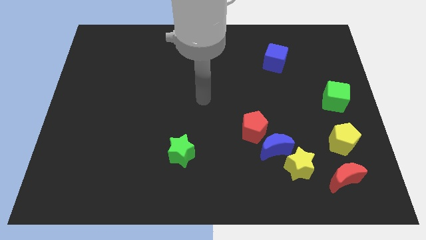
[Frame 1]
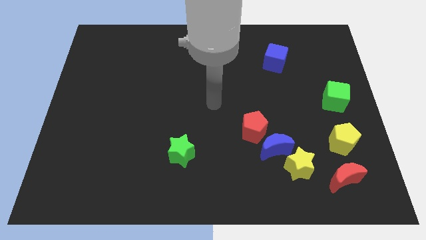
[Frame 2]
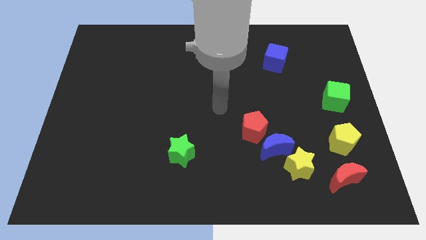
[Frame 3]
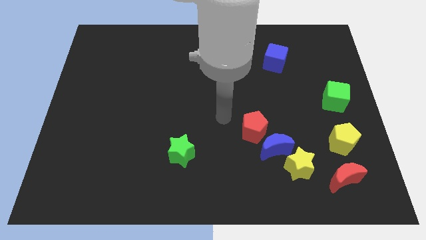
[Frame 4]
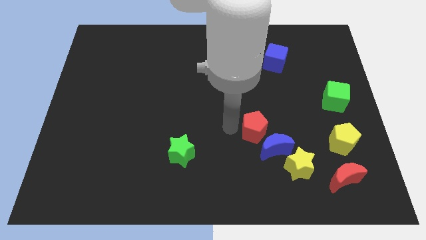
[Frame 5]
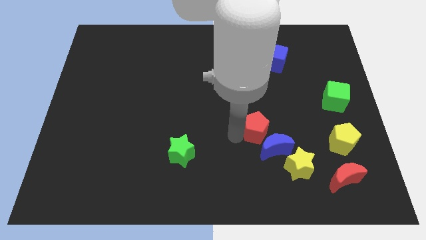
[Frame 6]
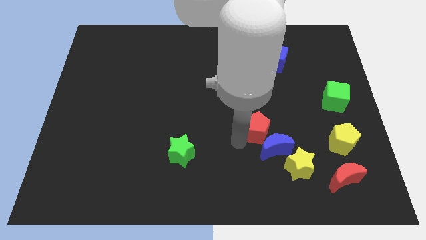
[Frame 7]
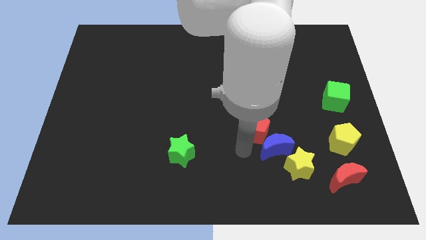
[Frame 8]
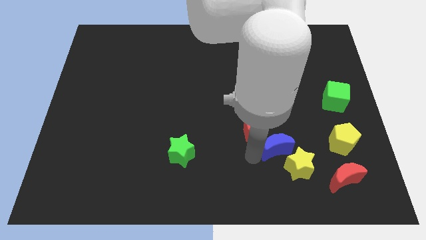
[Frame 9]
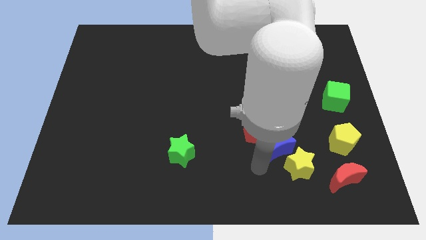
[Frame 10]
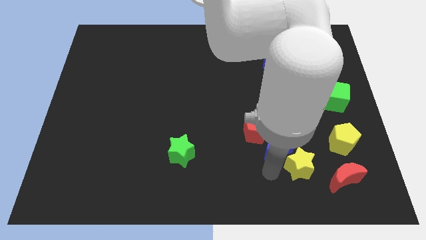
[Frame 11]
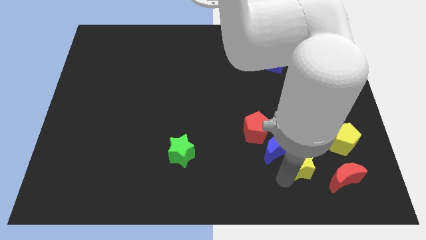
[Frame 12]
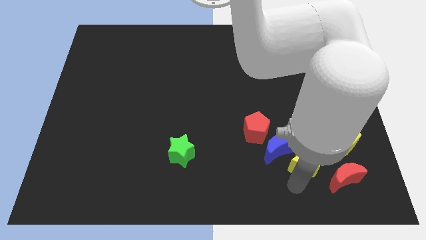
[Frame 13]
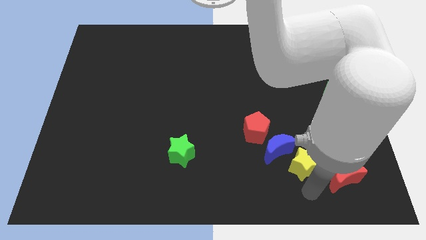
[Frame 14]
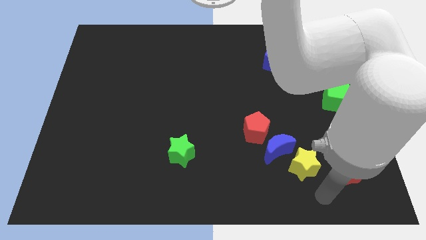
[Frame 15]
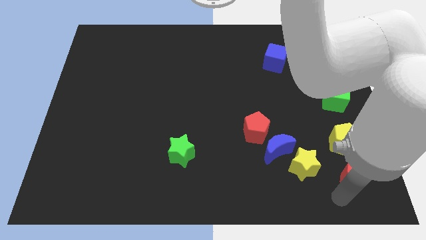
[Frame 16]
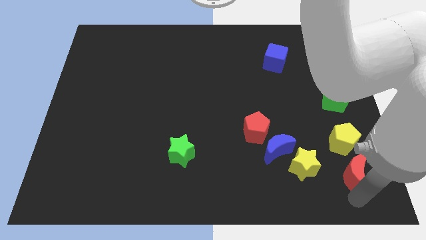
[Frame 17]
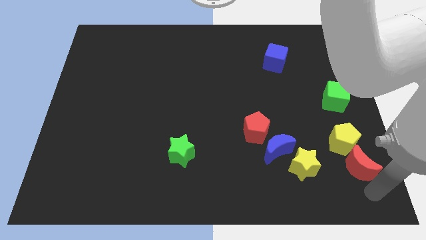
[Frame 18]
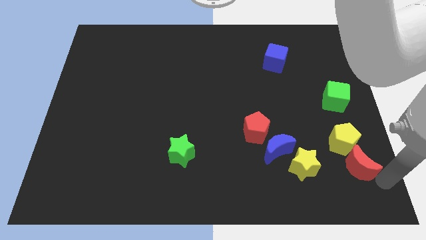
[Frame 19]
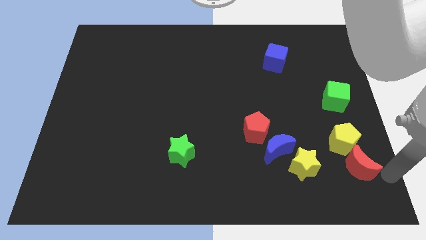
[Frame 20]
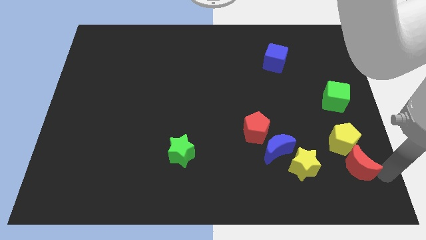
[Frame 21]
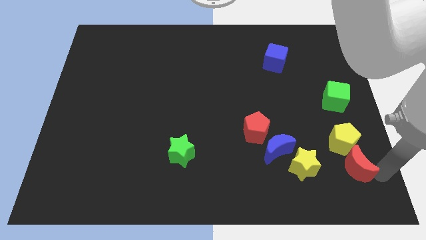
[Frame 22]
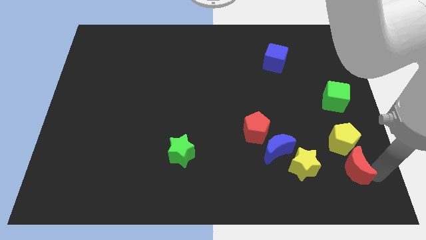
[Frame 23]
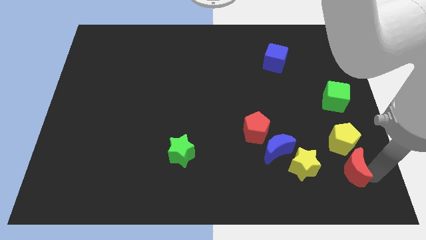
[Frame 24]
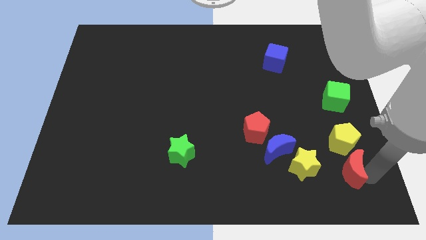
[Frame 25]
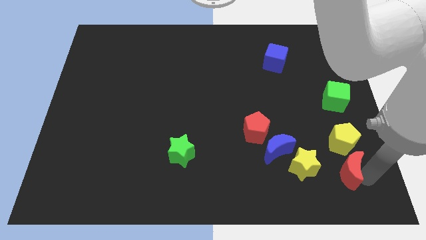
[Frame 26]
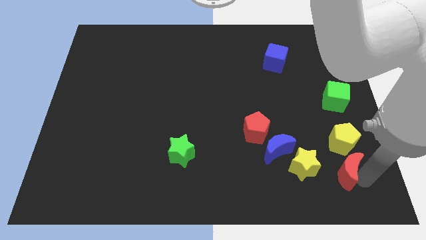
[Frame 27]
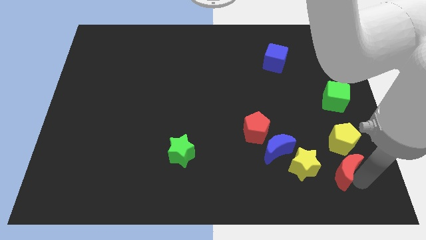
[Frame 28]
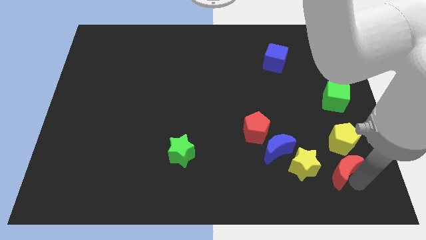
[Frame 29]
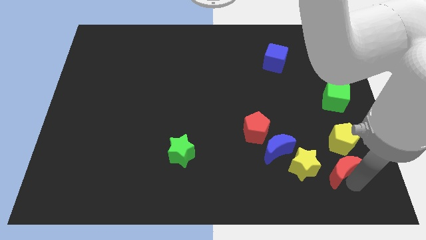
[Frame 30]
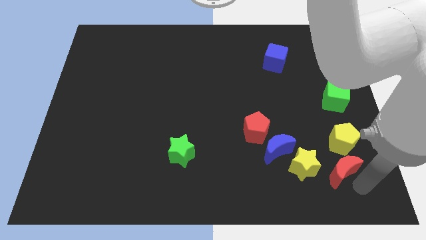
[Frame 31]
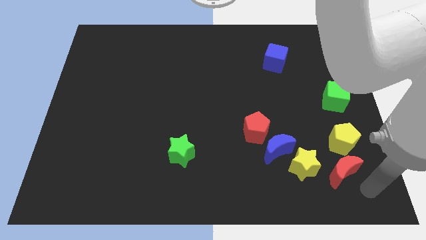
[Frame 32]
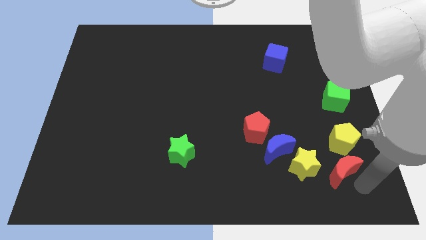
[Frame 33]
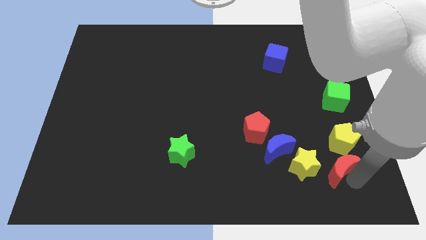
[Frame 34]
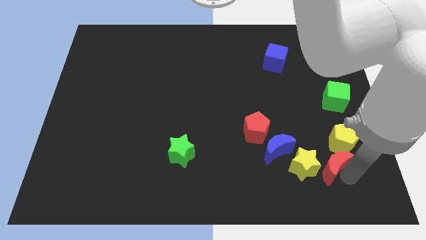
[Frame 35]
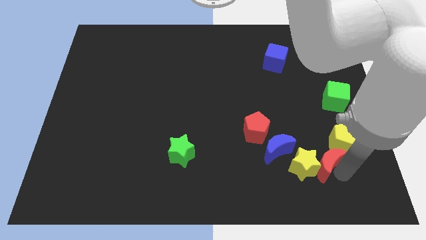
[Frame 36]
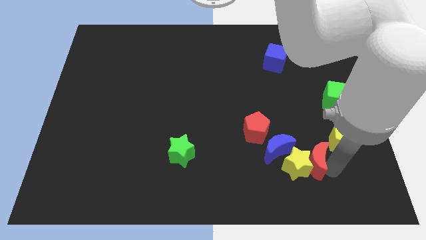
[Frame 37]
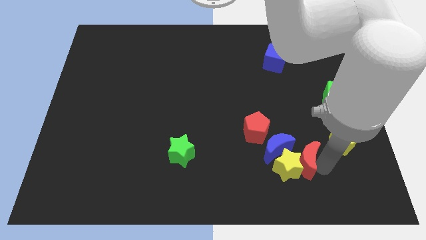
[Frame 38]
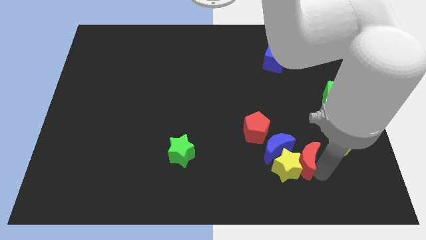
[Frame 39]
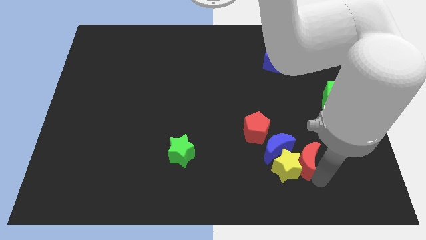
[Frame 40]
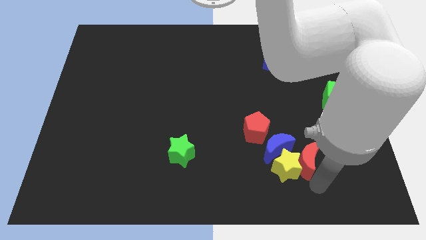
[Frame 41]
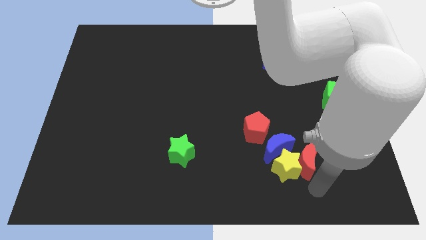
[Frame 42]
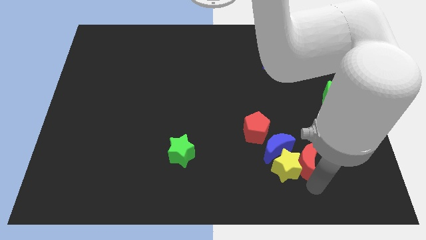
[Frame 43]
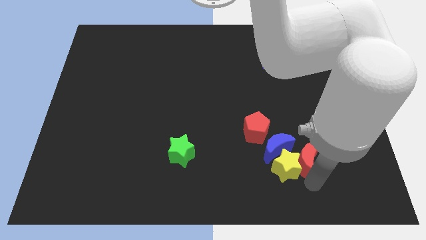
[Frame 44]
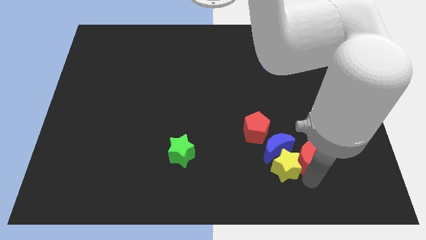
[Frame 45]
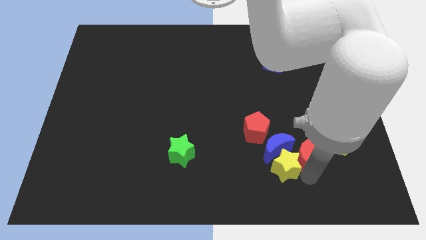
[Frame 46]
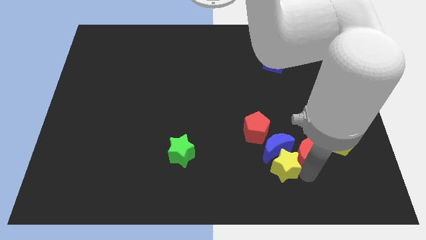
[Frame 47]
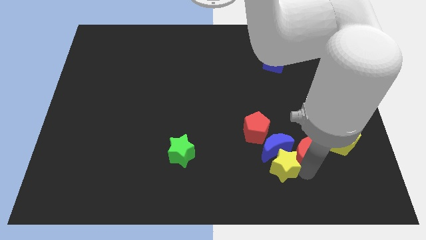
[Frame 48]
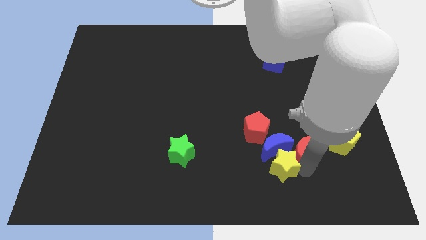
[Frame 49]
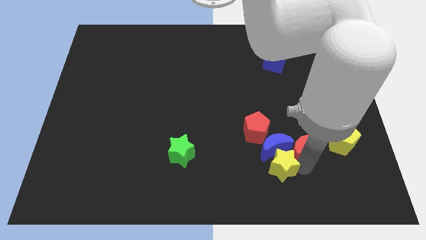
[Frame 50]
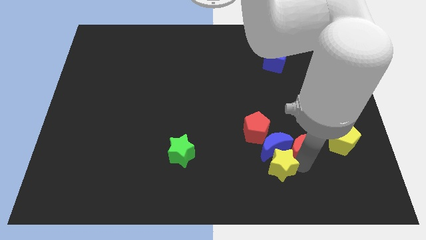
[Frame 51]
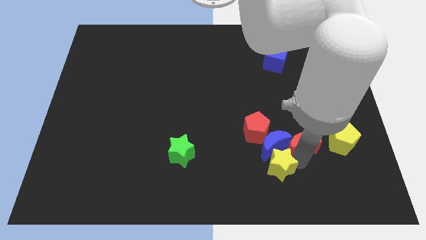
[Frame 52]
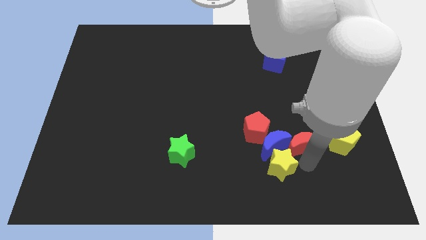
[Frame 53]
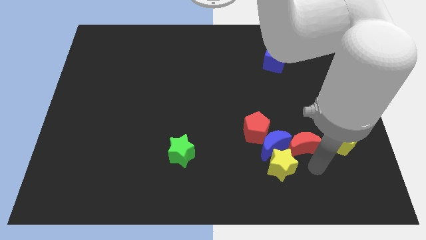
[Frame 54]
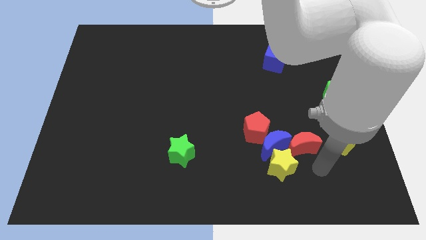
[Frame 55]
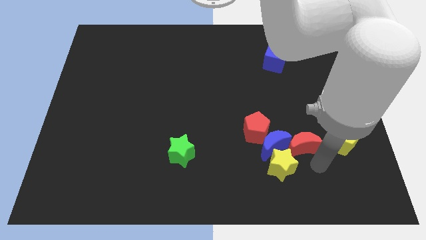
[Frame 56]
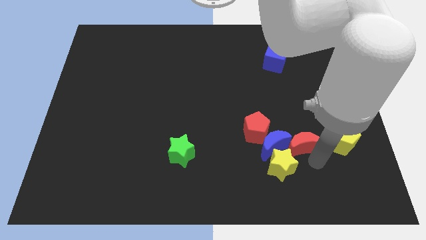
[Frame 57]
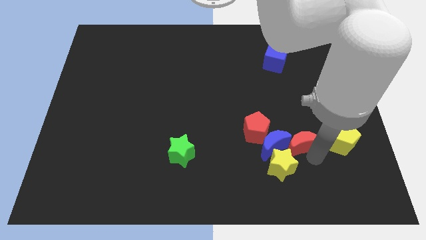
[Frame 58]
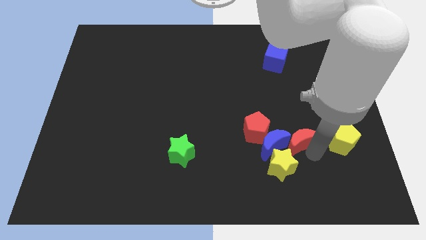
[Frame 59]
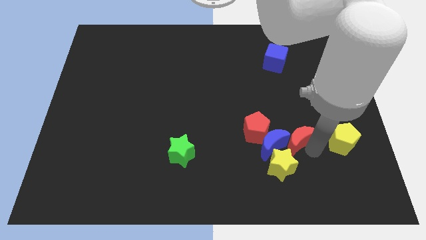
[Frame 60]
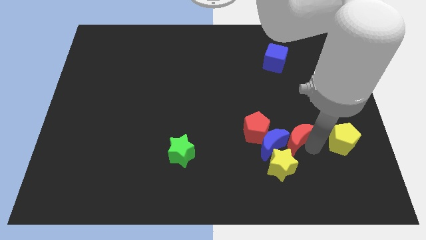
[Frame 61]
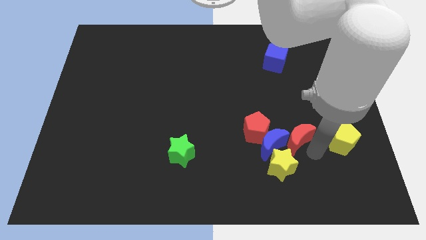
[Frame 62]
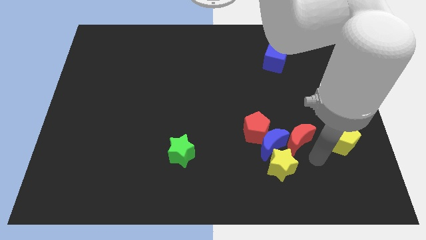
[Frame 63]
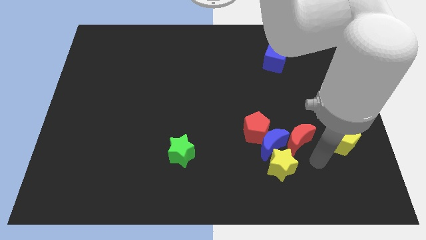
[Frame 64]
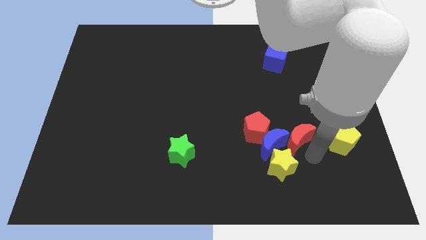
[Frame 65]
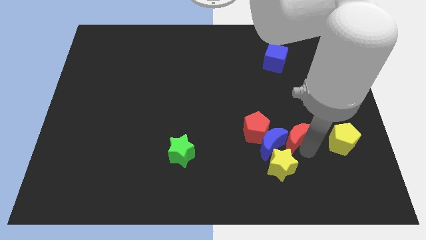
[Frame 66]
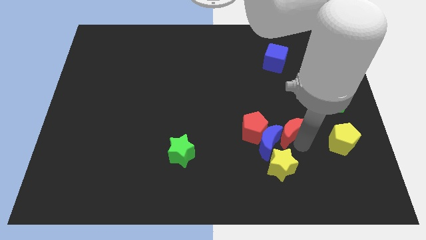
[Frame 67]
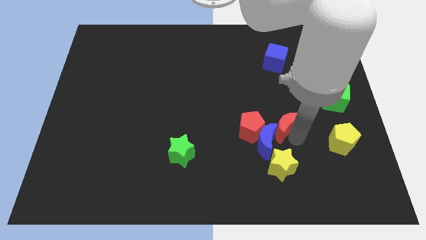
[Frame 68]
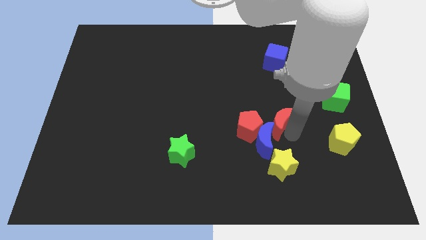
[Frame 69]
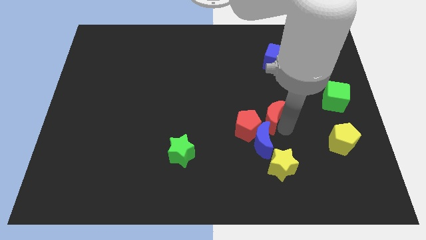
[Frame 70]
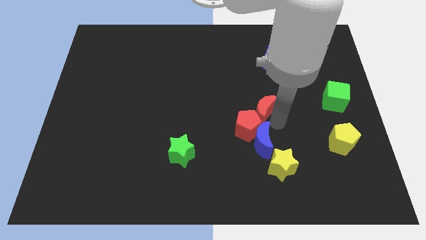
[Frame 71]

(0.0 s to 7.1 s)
push the red moon to the top side of the red pentagon
